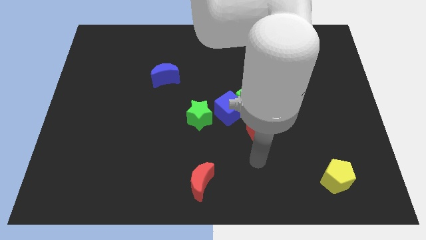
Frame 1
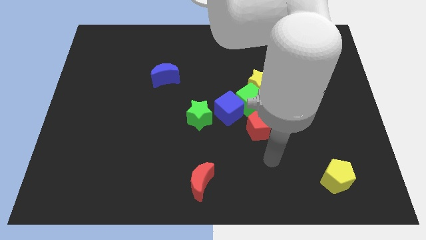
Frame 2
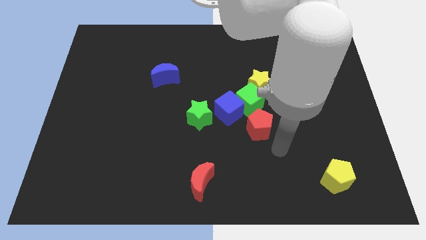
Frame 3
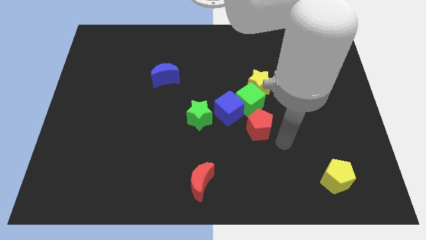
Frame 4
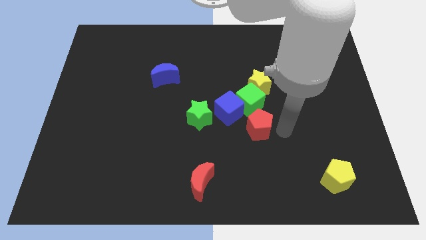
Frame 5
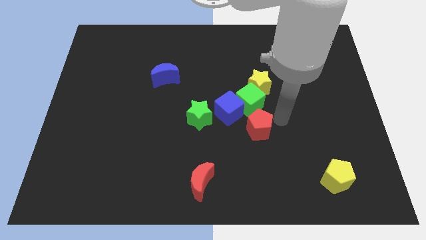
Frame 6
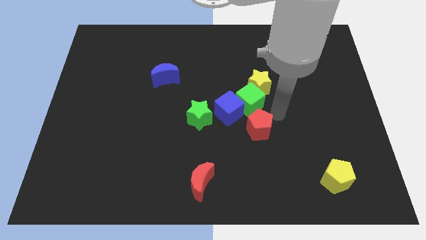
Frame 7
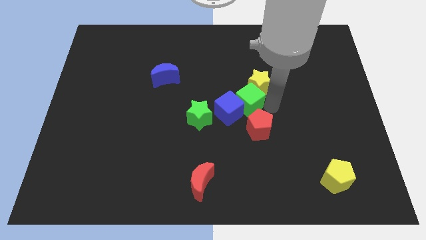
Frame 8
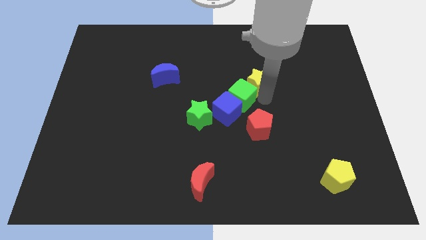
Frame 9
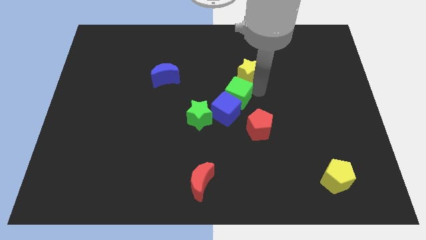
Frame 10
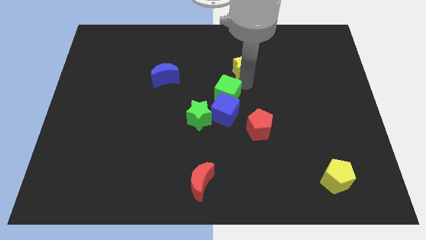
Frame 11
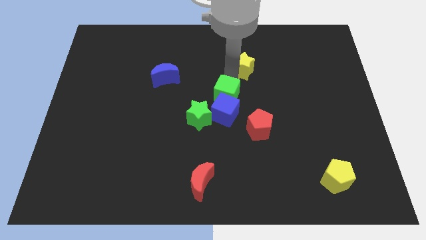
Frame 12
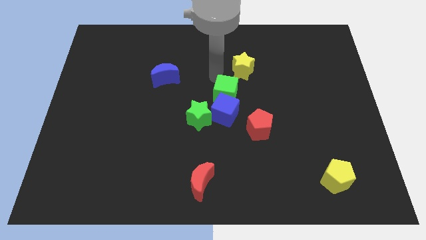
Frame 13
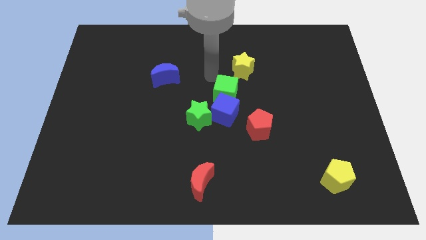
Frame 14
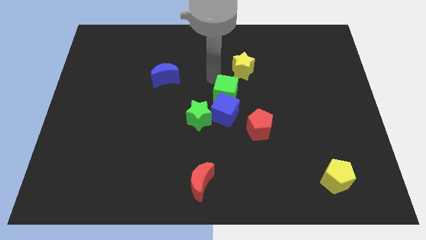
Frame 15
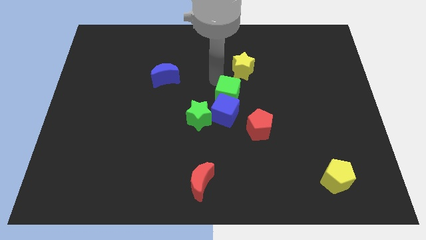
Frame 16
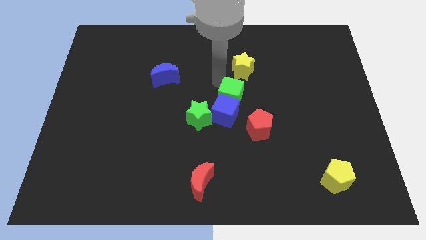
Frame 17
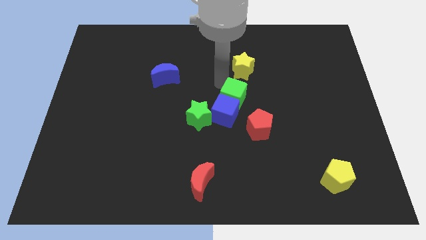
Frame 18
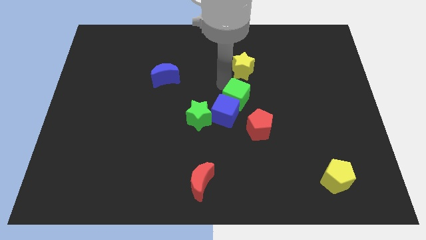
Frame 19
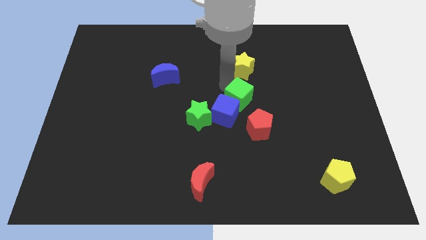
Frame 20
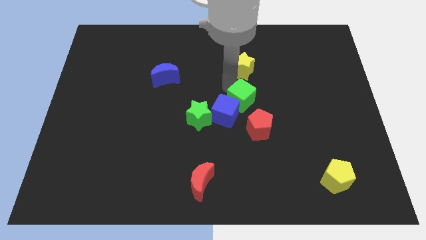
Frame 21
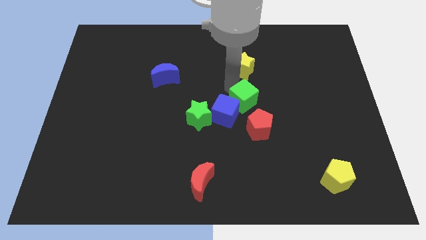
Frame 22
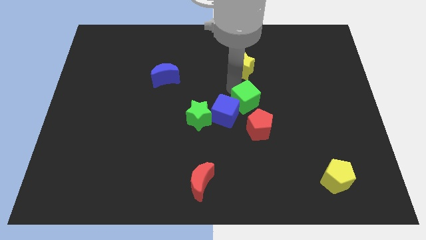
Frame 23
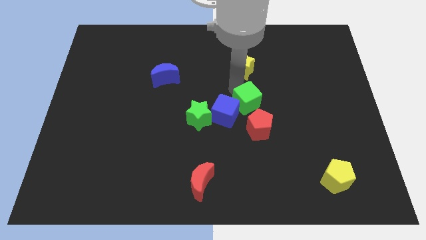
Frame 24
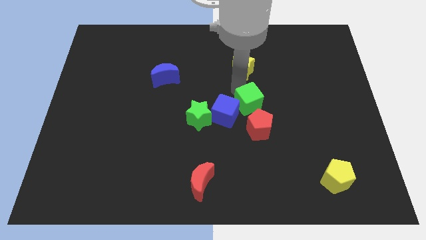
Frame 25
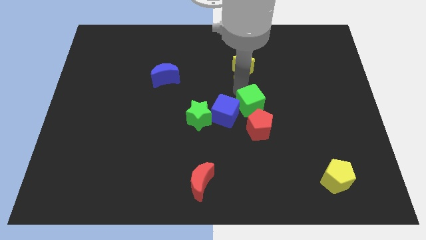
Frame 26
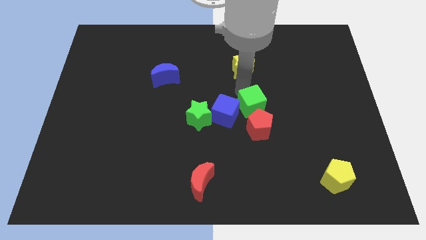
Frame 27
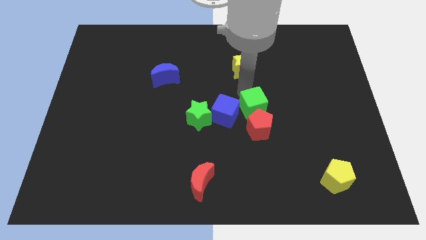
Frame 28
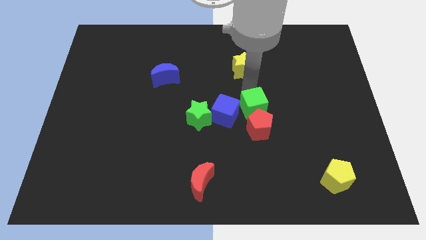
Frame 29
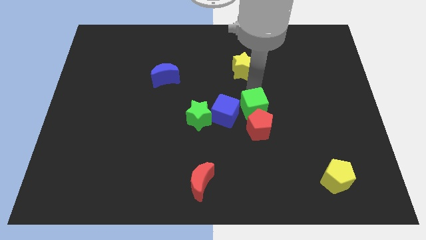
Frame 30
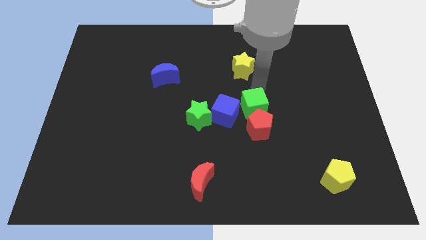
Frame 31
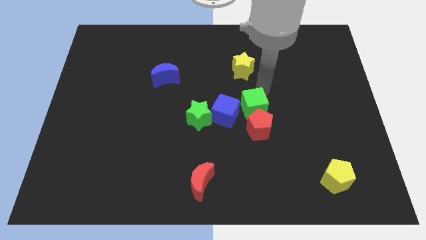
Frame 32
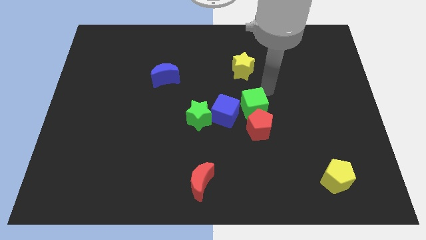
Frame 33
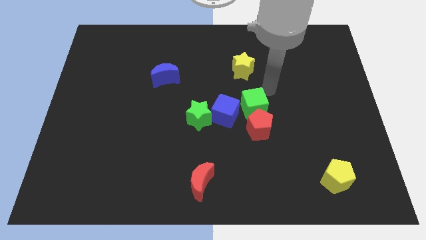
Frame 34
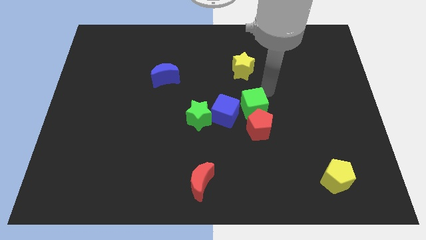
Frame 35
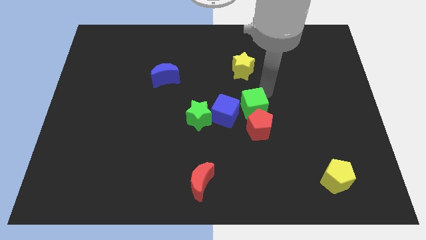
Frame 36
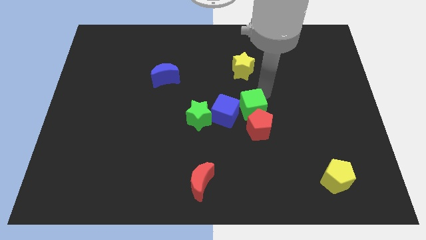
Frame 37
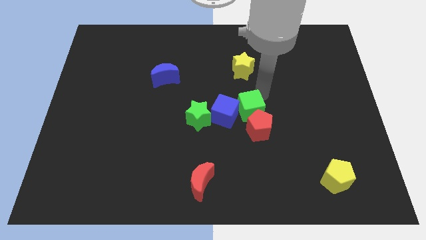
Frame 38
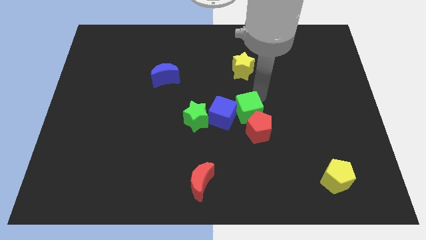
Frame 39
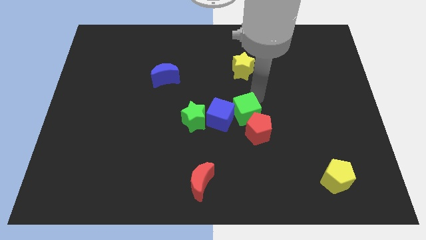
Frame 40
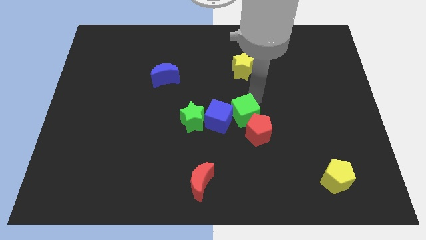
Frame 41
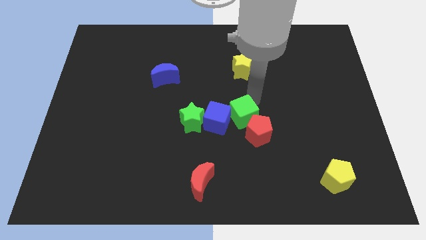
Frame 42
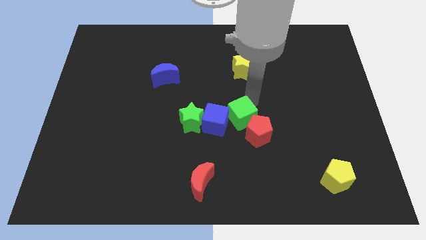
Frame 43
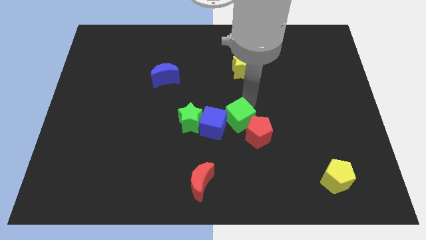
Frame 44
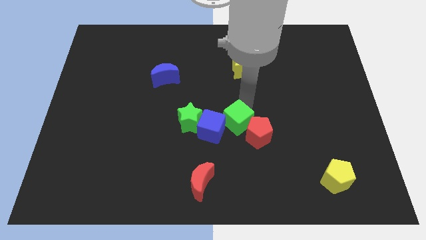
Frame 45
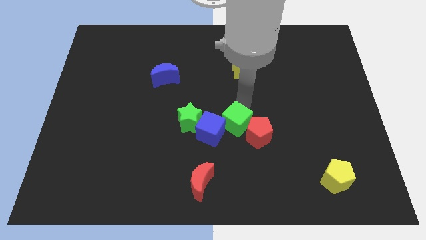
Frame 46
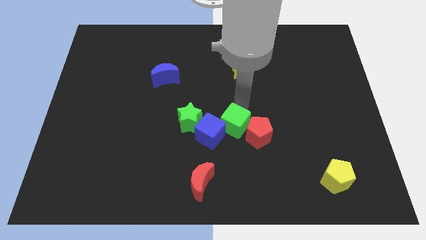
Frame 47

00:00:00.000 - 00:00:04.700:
push the green cube down and then left a little bit

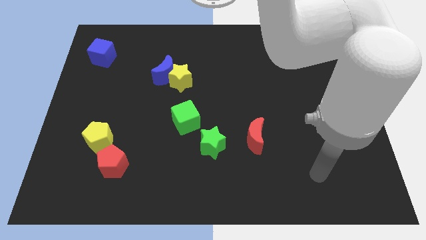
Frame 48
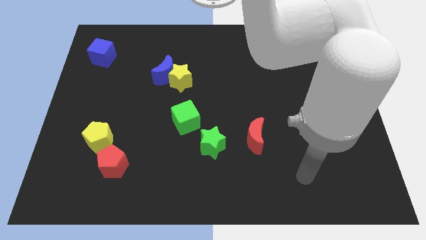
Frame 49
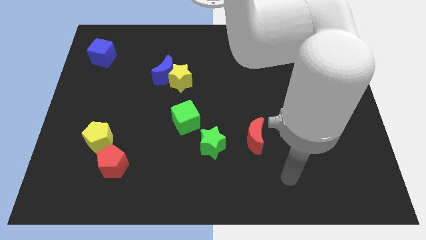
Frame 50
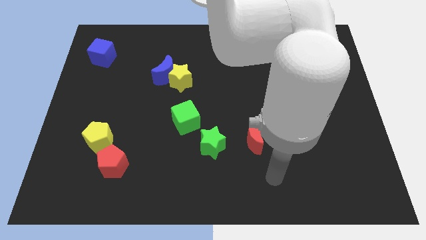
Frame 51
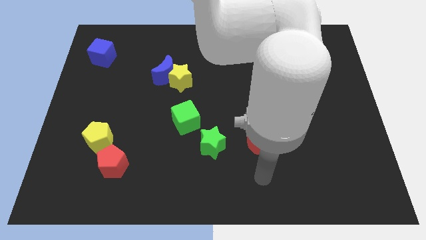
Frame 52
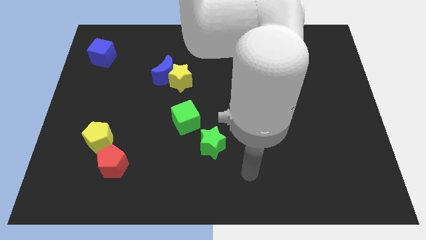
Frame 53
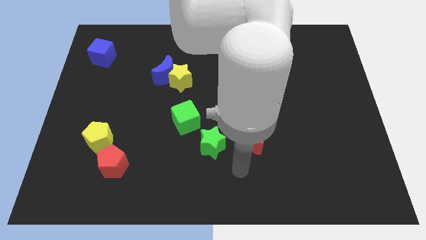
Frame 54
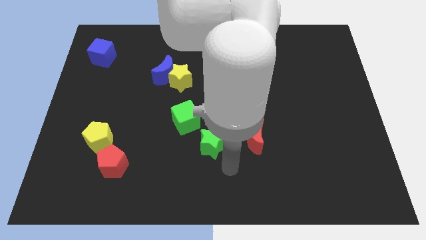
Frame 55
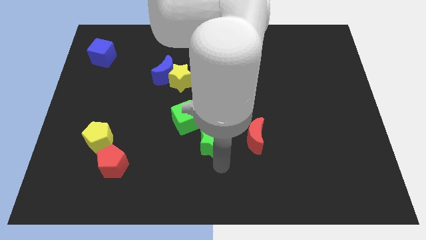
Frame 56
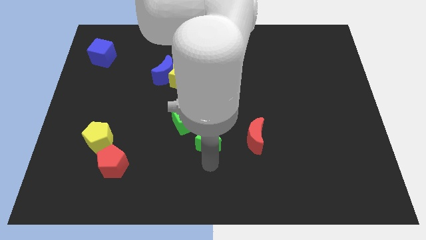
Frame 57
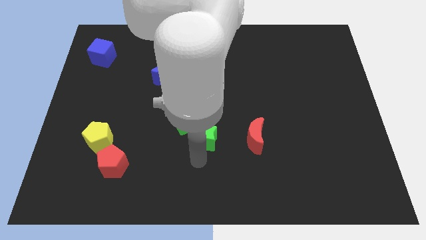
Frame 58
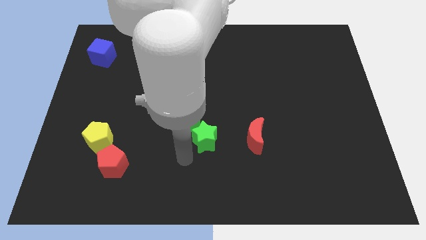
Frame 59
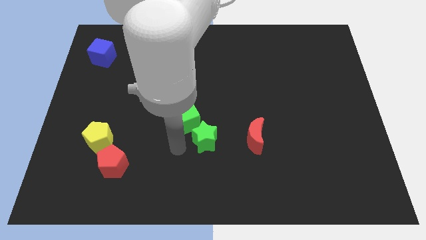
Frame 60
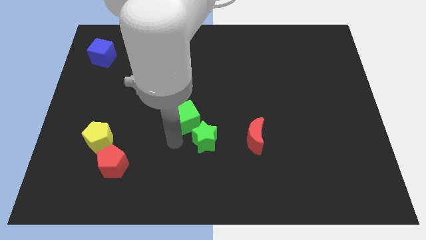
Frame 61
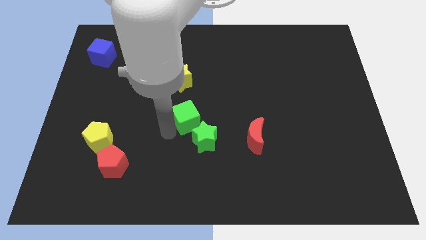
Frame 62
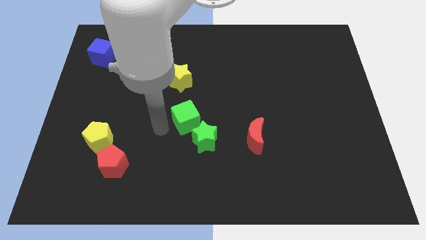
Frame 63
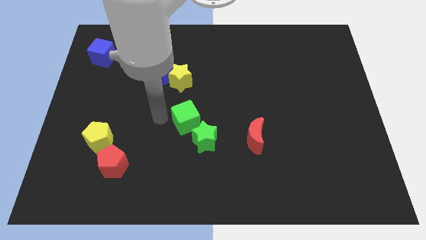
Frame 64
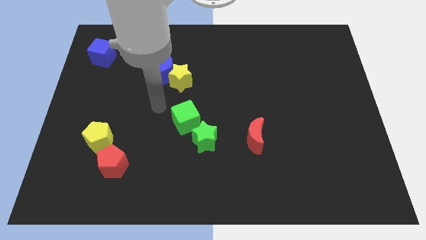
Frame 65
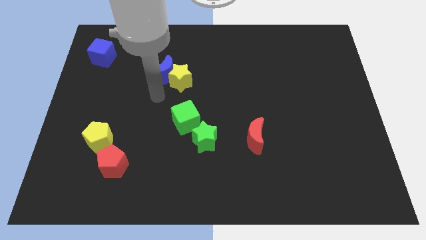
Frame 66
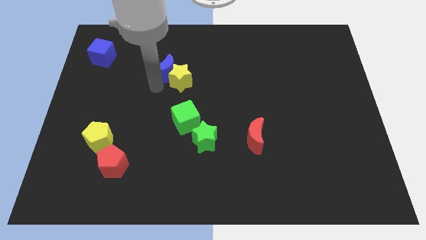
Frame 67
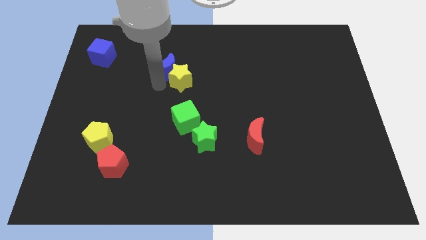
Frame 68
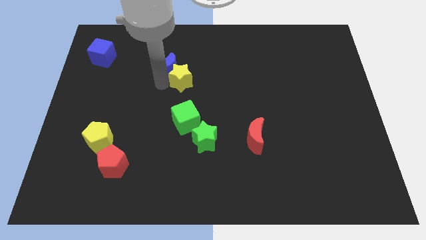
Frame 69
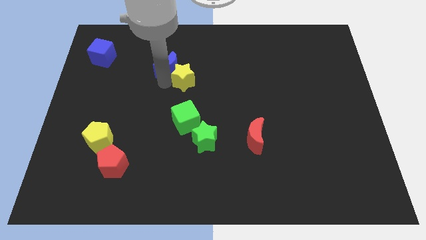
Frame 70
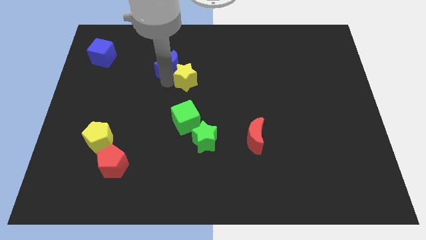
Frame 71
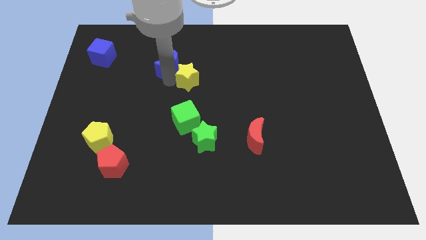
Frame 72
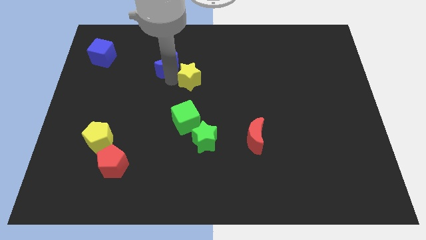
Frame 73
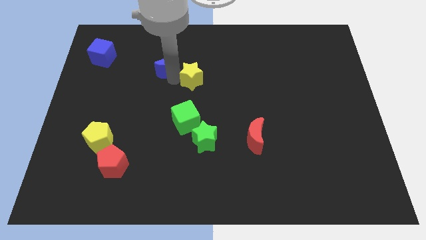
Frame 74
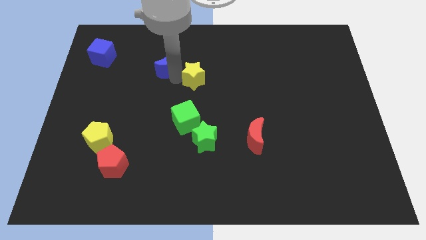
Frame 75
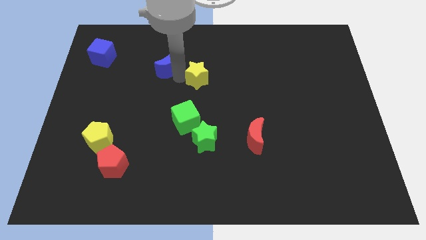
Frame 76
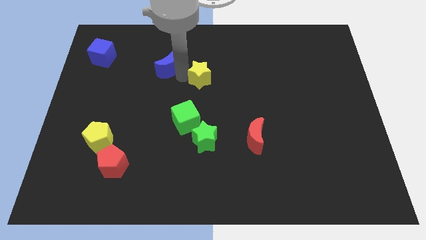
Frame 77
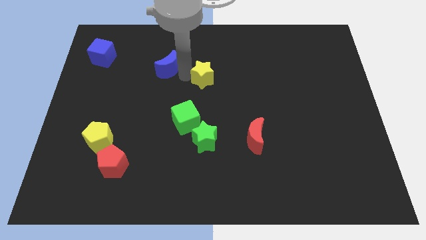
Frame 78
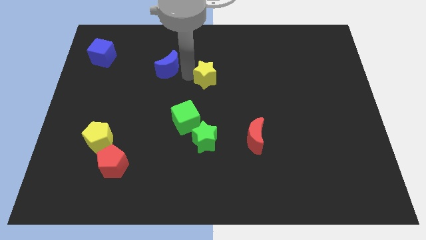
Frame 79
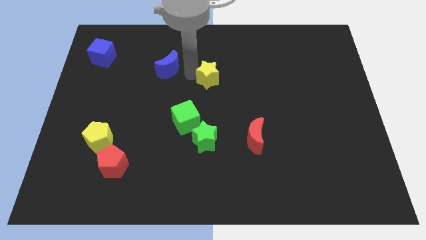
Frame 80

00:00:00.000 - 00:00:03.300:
slide the yellow star right a bit

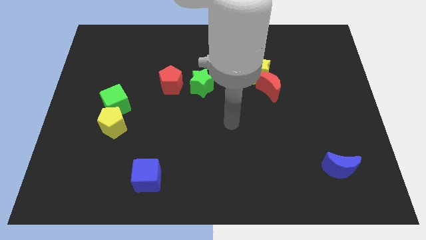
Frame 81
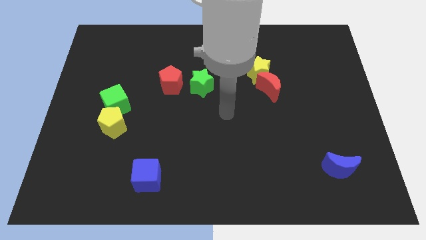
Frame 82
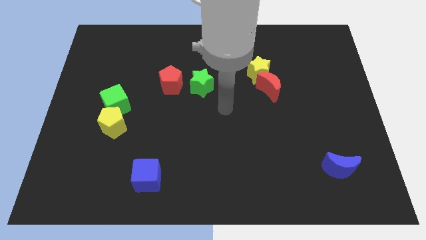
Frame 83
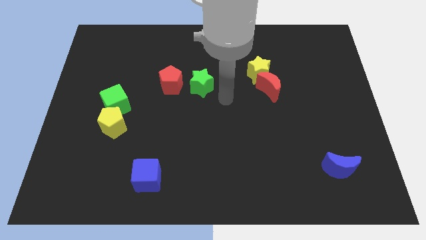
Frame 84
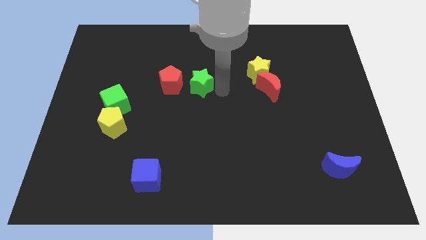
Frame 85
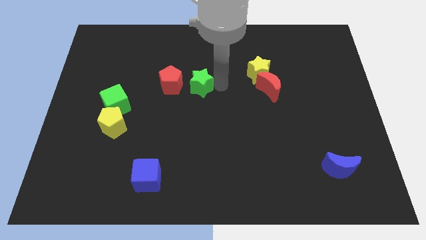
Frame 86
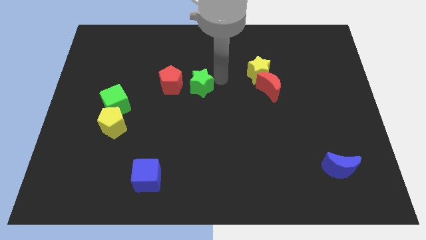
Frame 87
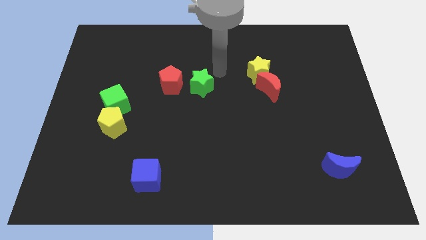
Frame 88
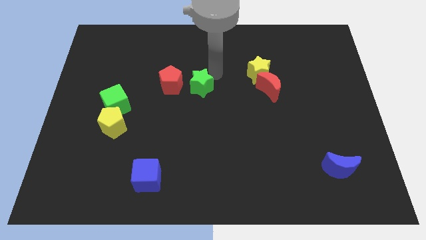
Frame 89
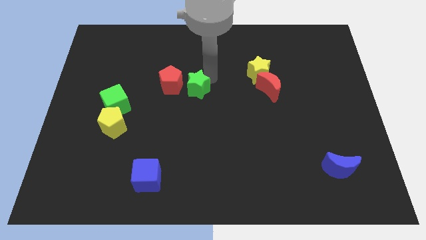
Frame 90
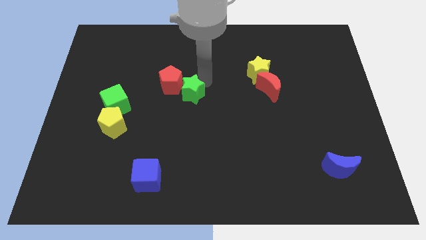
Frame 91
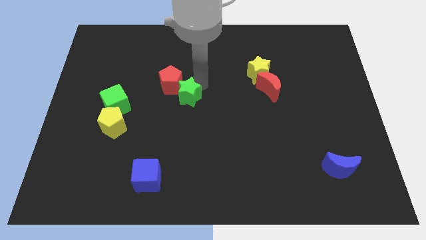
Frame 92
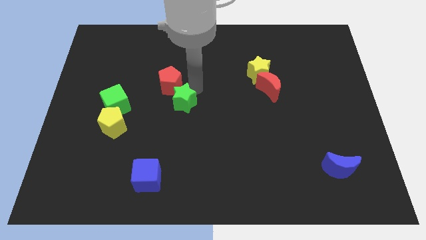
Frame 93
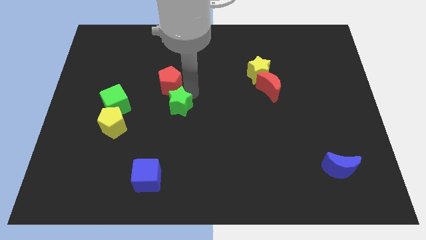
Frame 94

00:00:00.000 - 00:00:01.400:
slightly move the green star downwards and to the left
